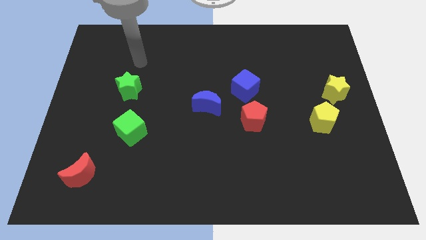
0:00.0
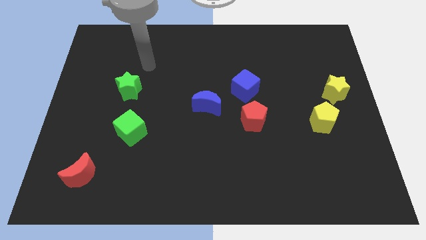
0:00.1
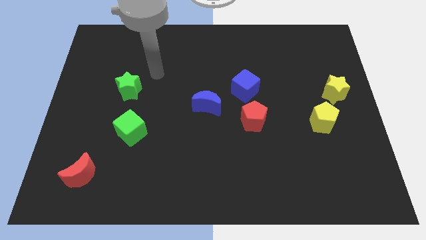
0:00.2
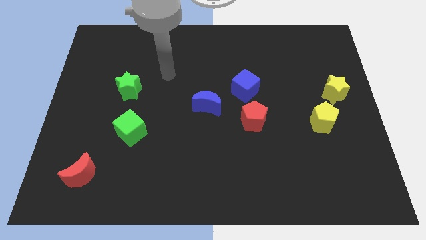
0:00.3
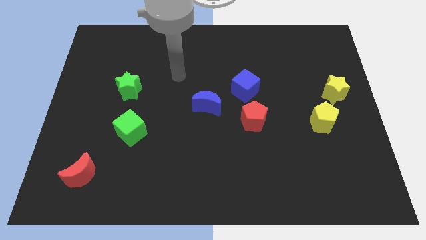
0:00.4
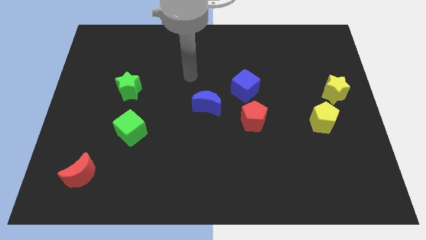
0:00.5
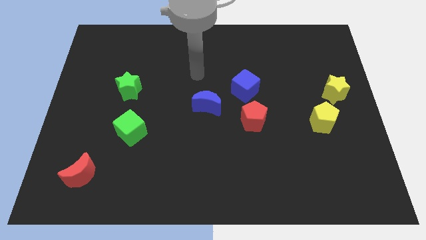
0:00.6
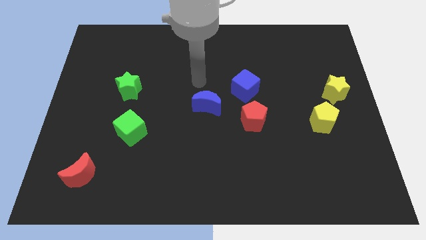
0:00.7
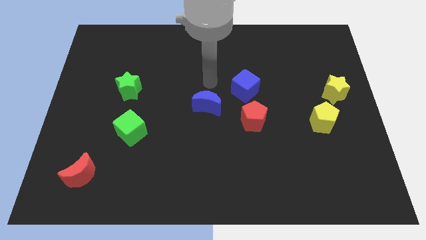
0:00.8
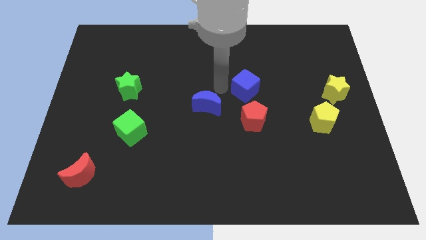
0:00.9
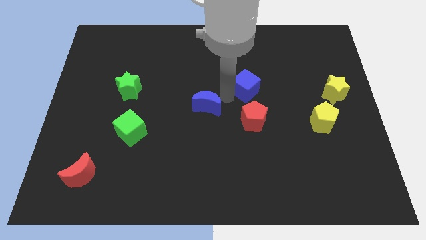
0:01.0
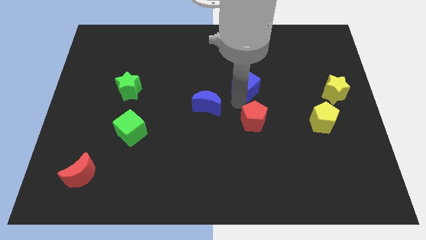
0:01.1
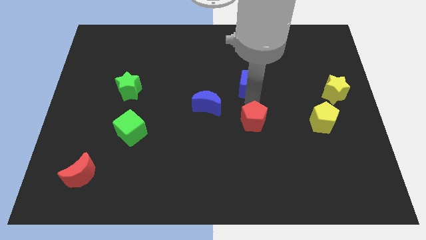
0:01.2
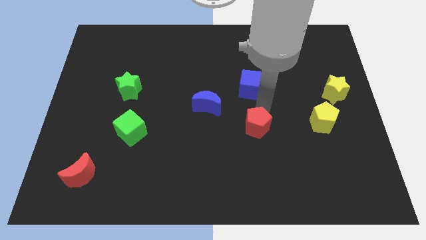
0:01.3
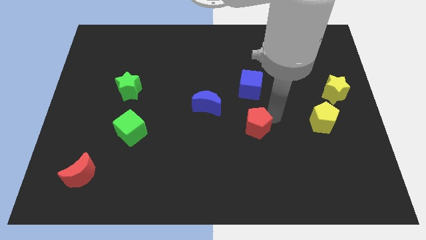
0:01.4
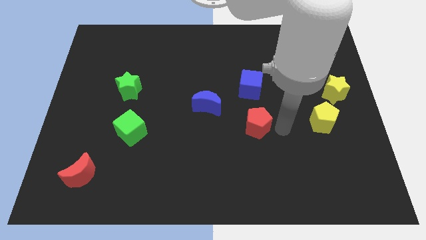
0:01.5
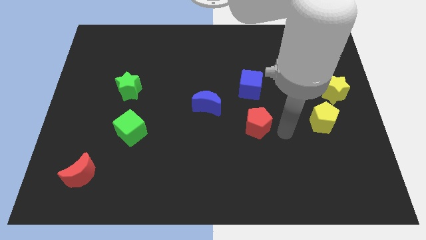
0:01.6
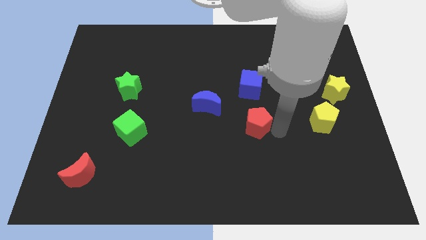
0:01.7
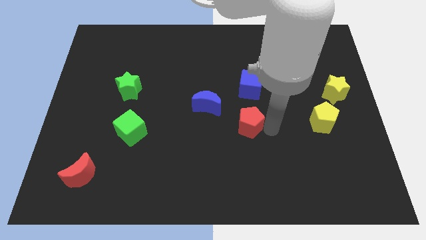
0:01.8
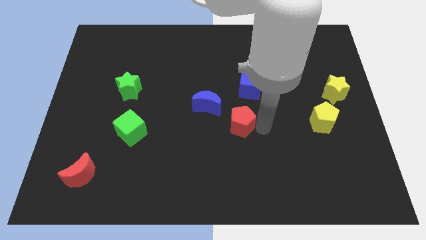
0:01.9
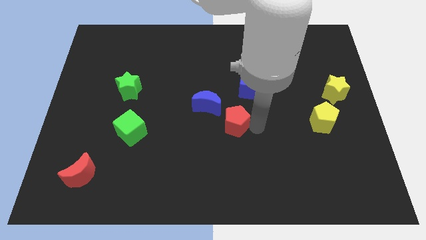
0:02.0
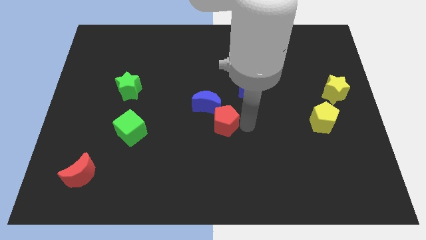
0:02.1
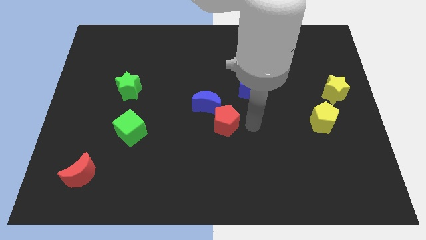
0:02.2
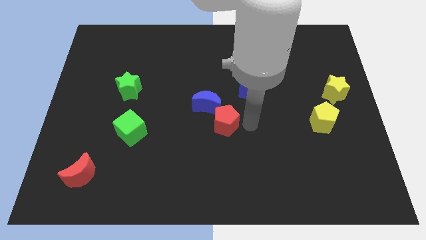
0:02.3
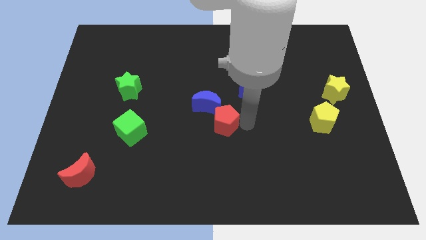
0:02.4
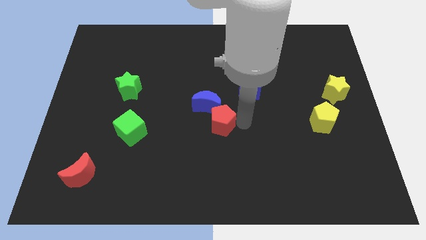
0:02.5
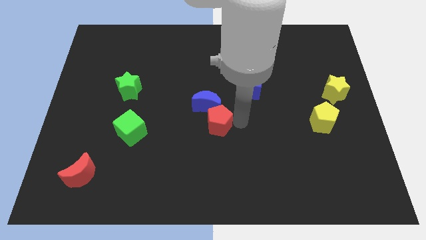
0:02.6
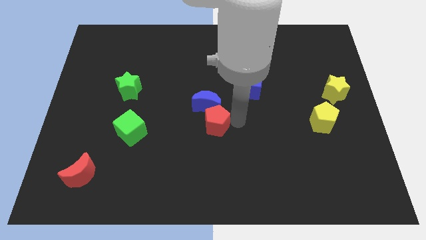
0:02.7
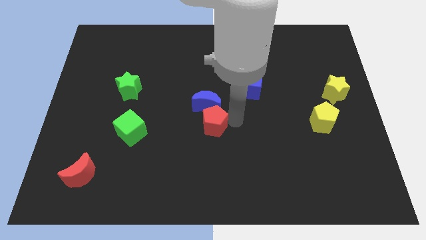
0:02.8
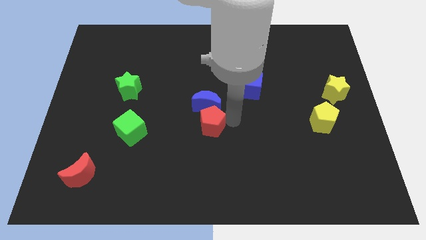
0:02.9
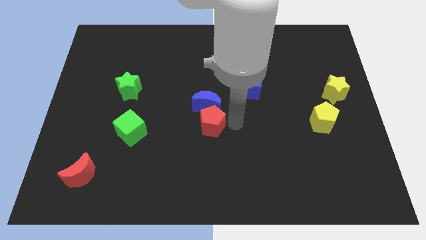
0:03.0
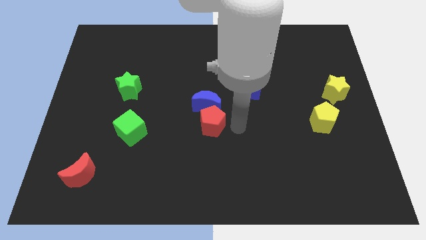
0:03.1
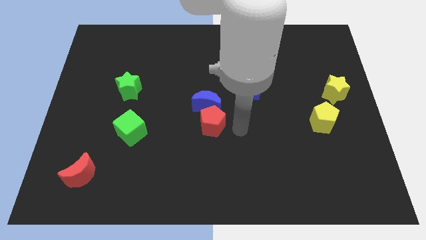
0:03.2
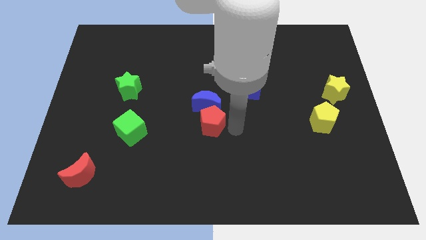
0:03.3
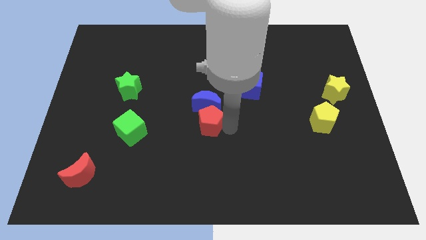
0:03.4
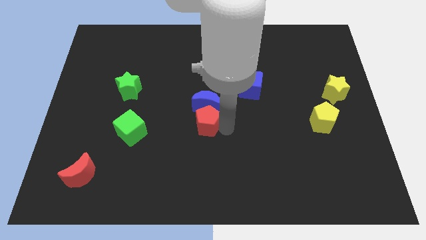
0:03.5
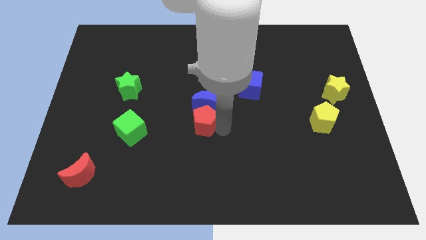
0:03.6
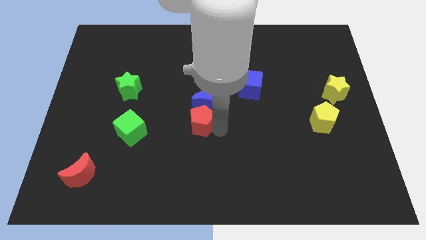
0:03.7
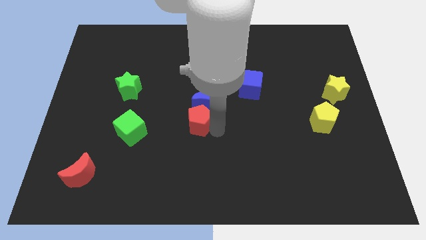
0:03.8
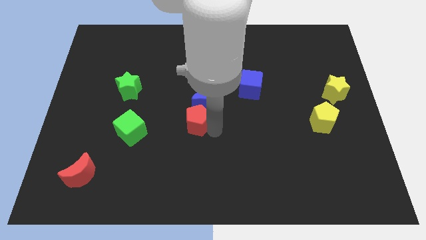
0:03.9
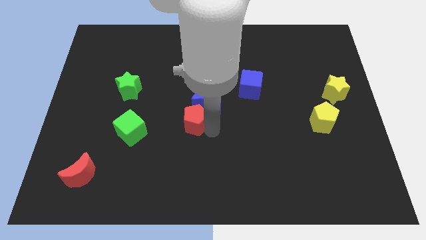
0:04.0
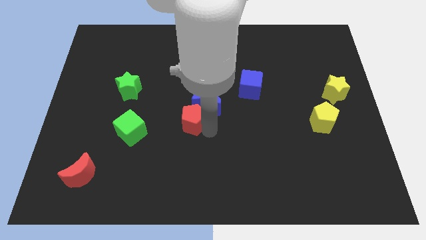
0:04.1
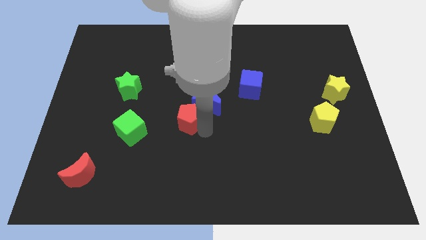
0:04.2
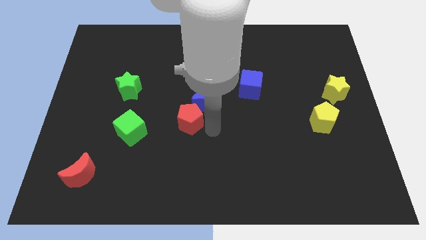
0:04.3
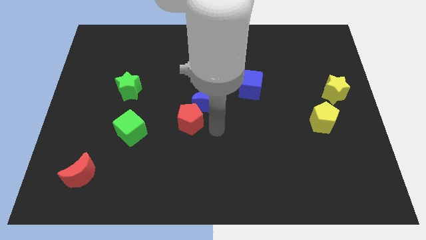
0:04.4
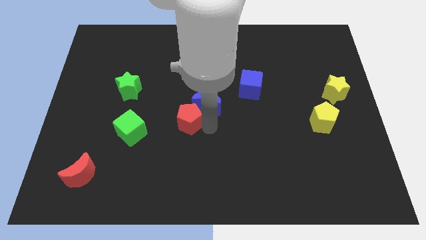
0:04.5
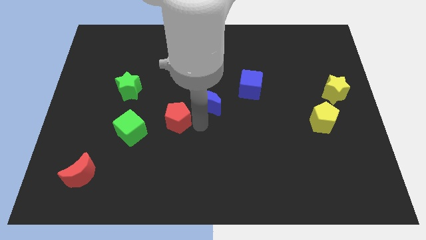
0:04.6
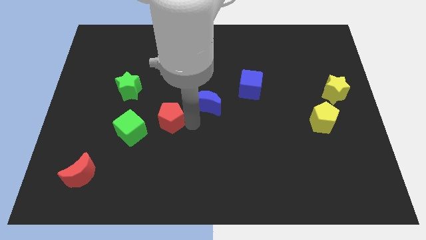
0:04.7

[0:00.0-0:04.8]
slide the red pentagon diagonally up and to the right of the green cube

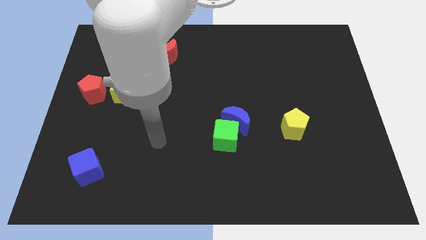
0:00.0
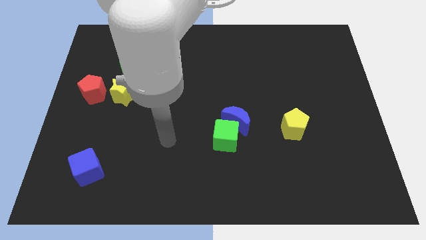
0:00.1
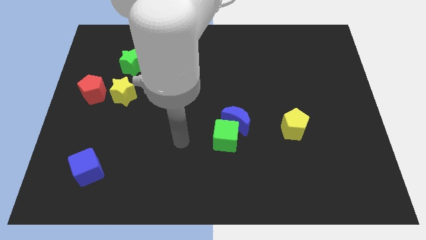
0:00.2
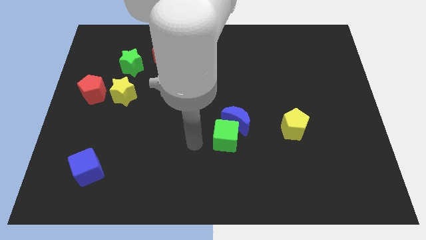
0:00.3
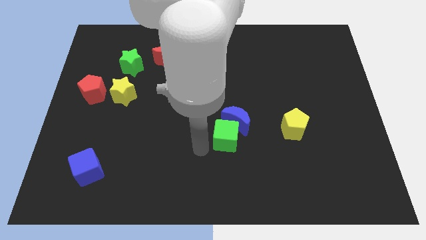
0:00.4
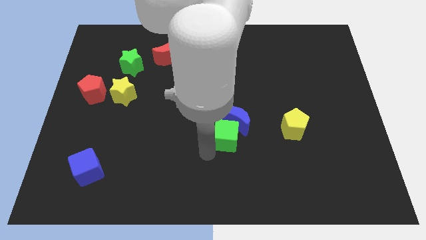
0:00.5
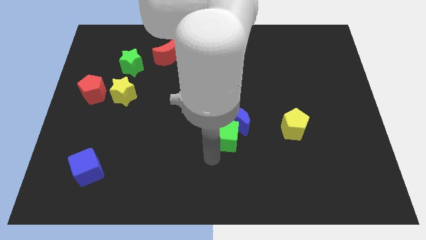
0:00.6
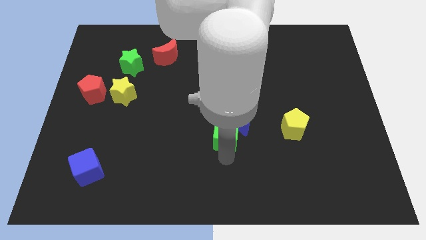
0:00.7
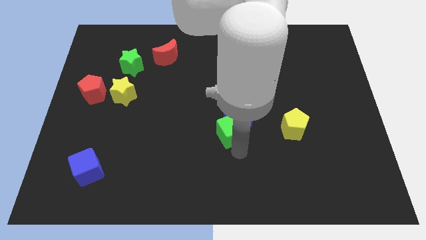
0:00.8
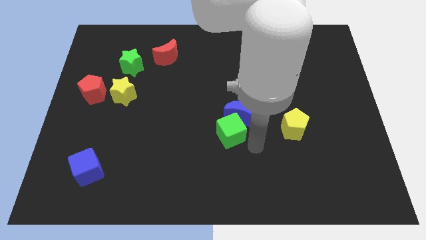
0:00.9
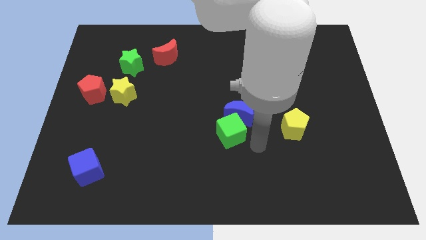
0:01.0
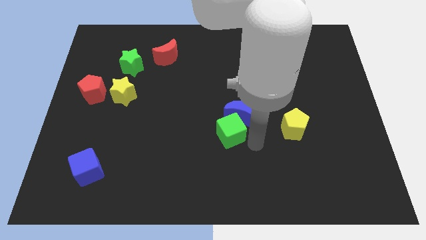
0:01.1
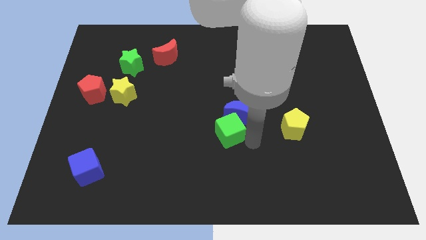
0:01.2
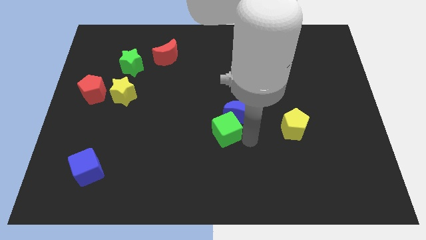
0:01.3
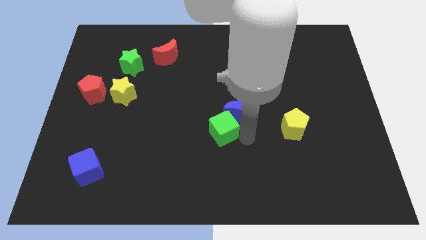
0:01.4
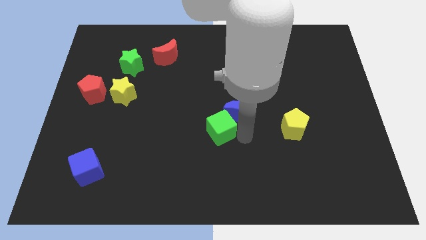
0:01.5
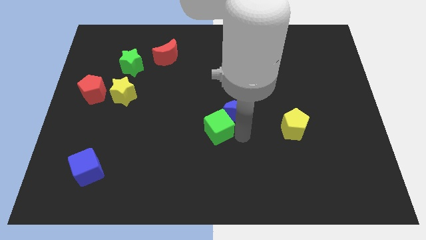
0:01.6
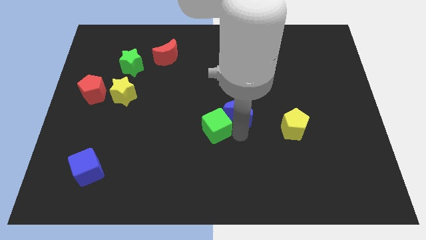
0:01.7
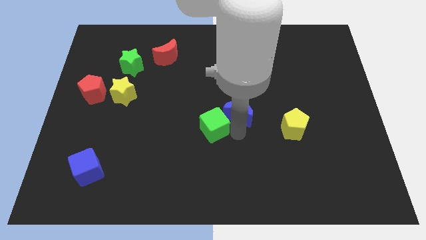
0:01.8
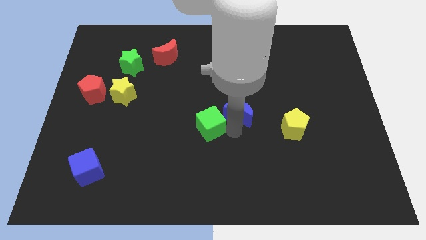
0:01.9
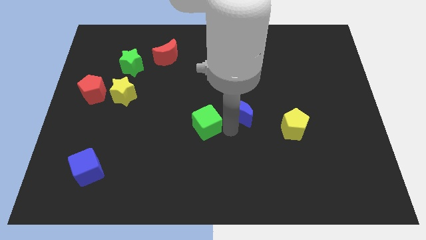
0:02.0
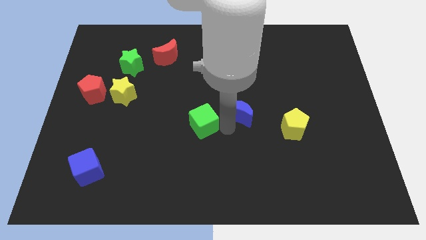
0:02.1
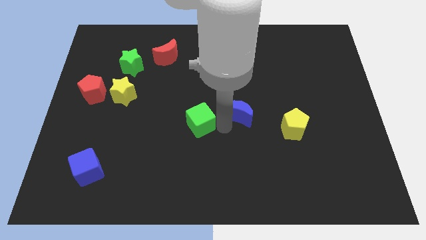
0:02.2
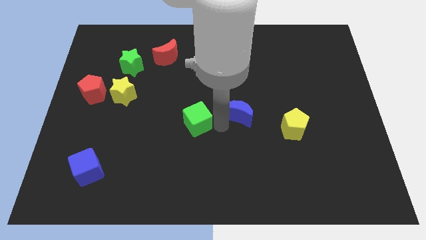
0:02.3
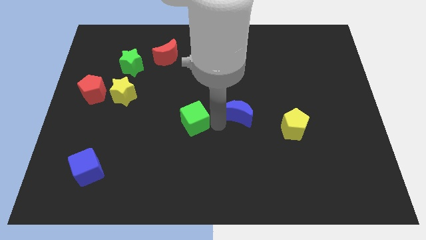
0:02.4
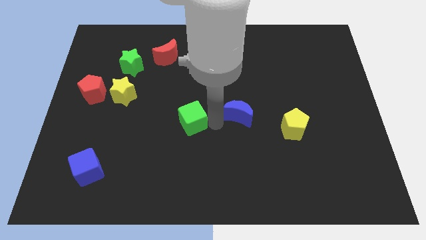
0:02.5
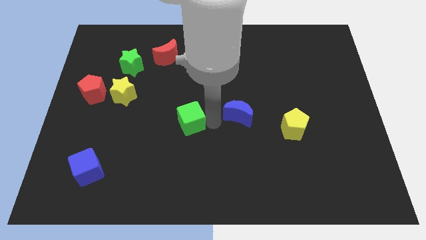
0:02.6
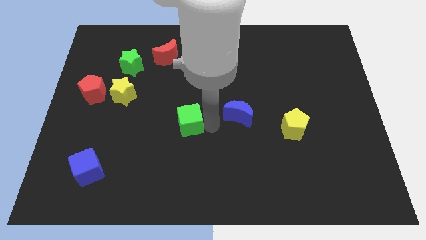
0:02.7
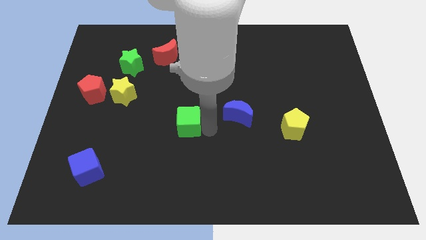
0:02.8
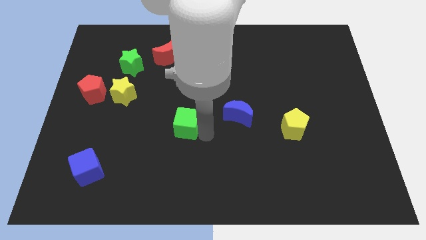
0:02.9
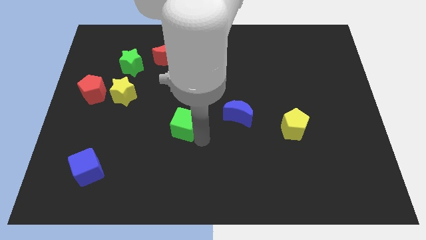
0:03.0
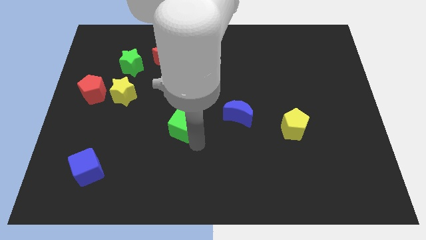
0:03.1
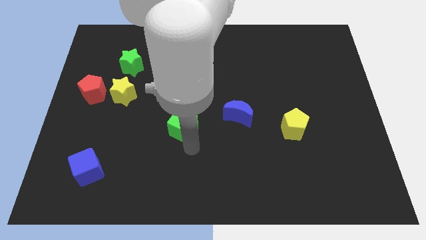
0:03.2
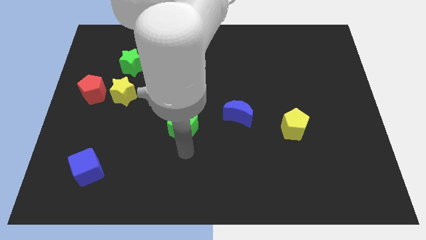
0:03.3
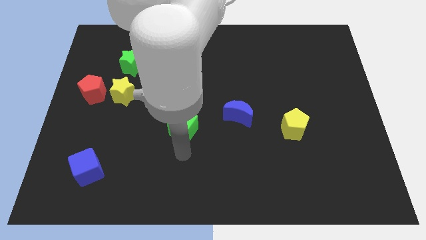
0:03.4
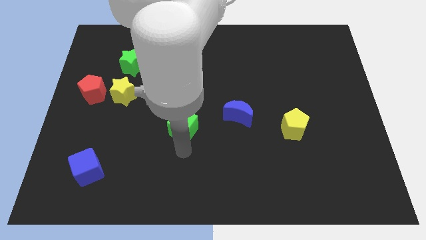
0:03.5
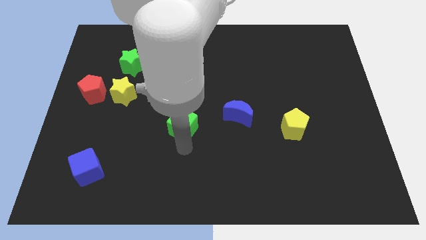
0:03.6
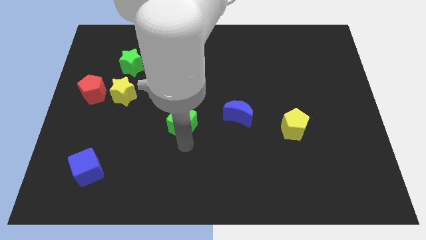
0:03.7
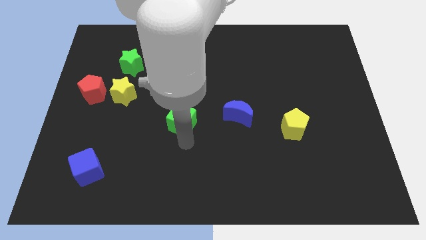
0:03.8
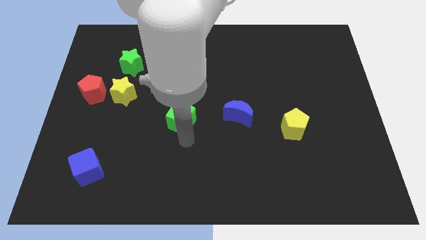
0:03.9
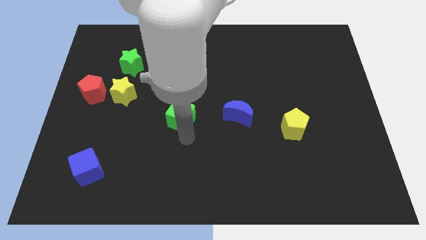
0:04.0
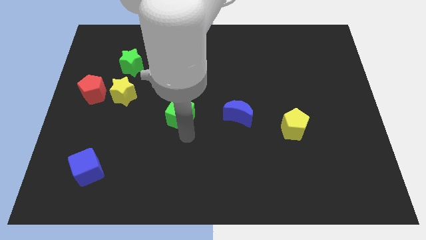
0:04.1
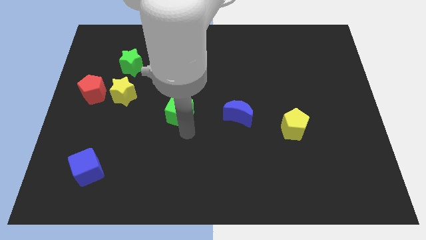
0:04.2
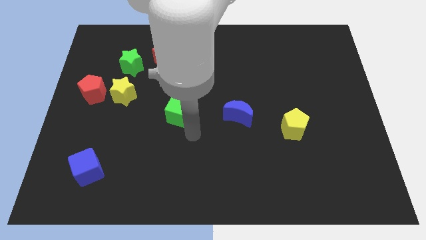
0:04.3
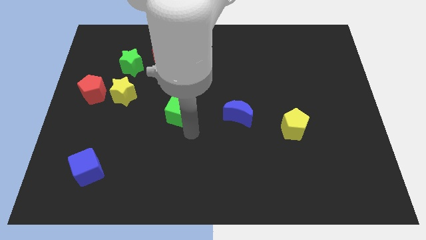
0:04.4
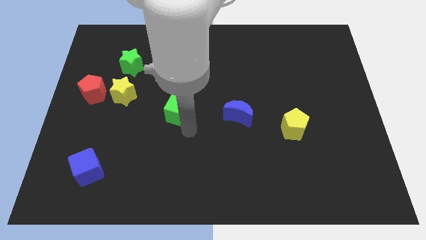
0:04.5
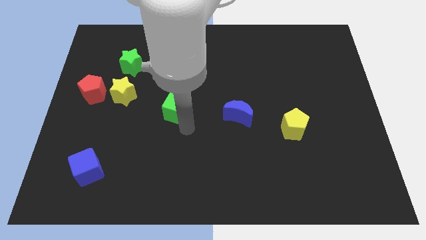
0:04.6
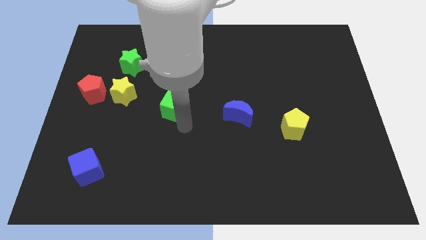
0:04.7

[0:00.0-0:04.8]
slide the green cube right of the yellow star
